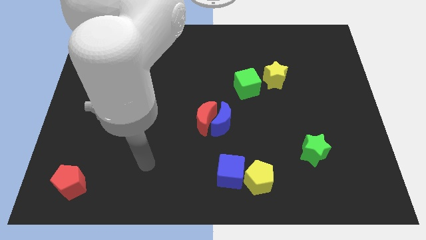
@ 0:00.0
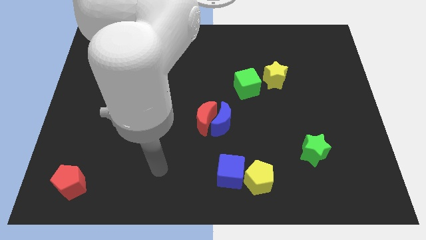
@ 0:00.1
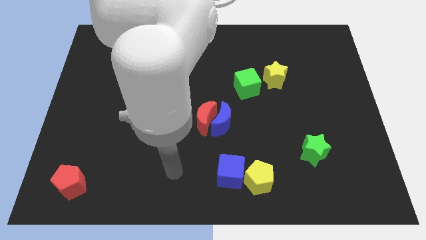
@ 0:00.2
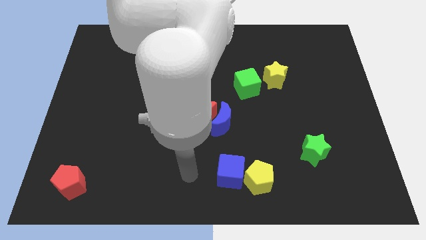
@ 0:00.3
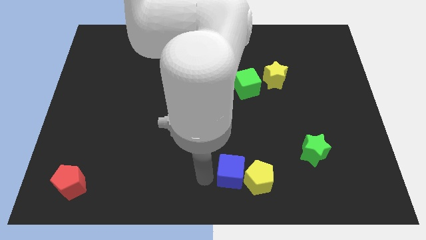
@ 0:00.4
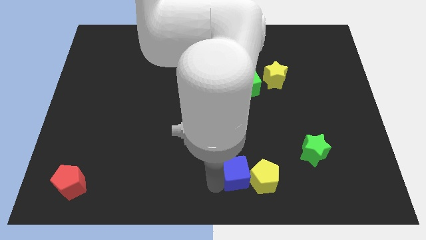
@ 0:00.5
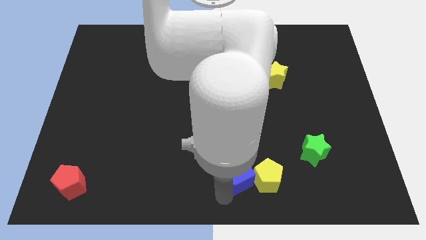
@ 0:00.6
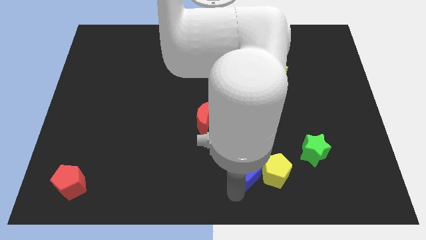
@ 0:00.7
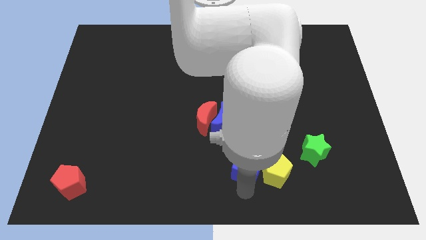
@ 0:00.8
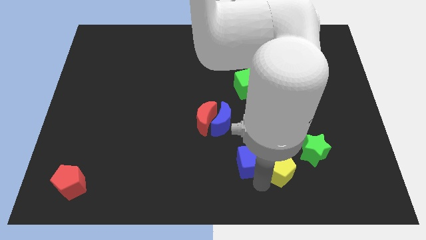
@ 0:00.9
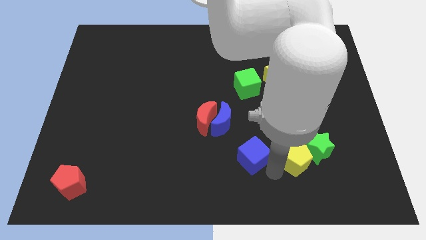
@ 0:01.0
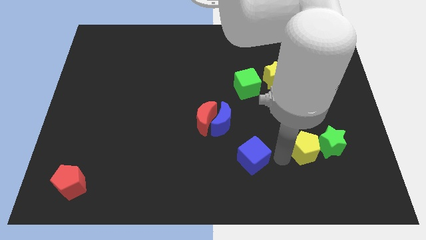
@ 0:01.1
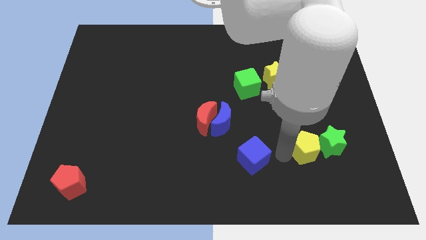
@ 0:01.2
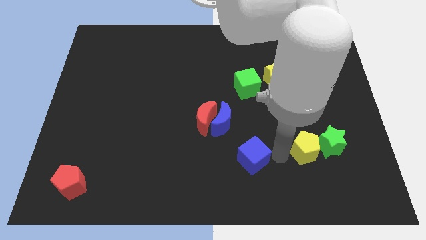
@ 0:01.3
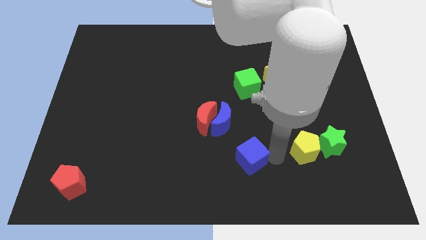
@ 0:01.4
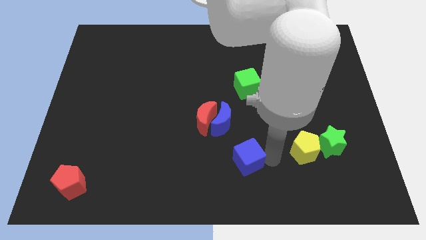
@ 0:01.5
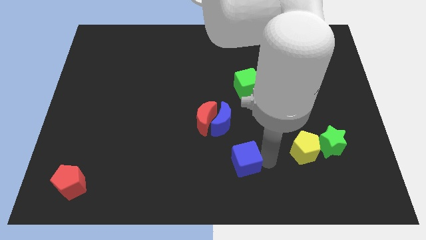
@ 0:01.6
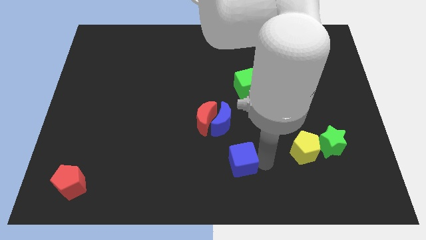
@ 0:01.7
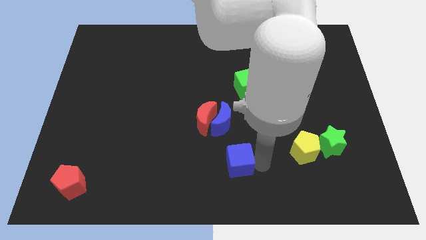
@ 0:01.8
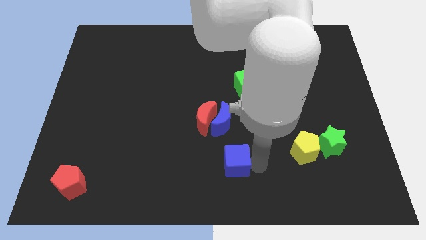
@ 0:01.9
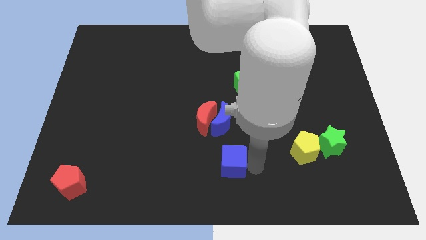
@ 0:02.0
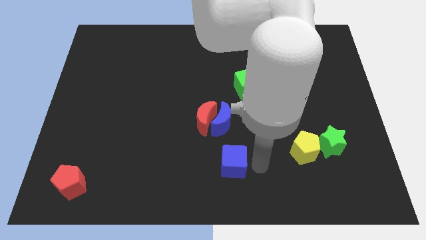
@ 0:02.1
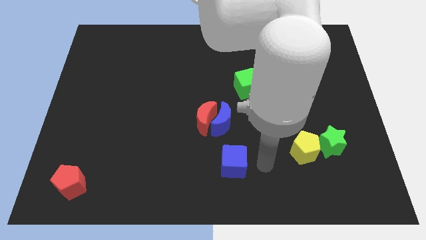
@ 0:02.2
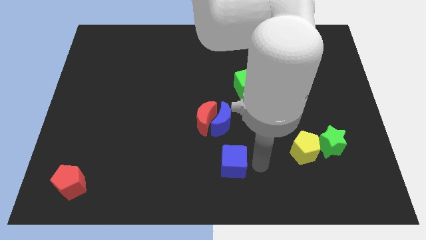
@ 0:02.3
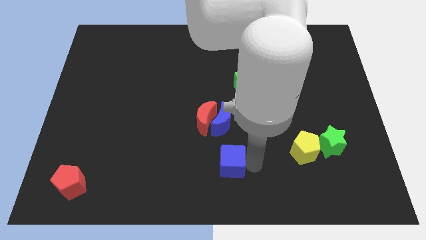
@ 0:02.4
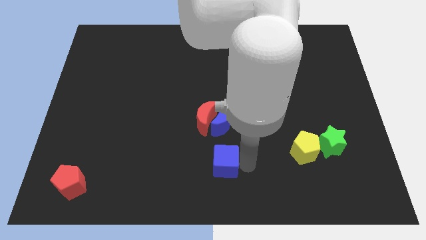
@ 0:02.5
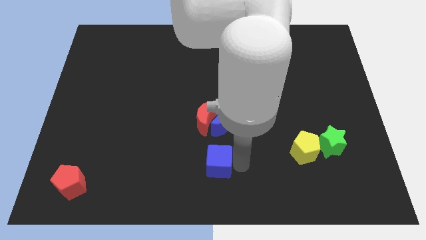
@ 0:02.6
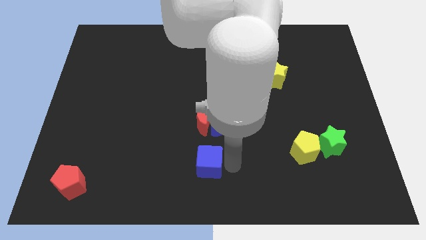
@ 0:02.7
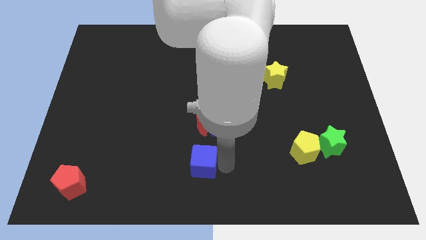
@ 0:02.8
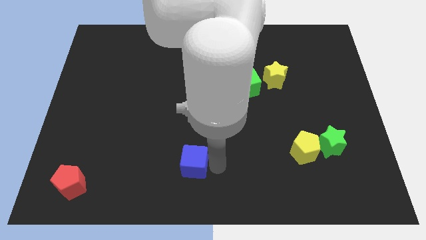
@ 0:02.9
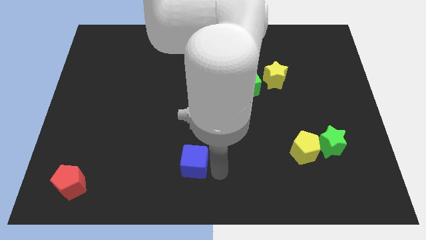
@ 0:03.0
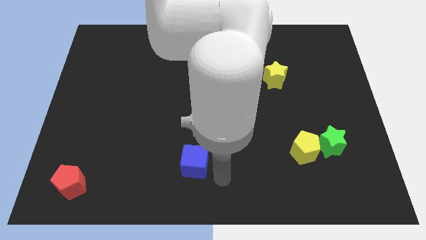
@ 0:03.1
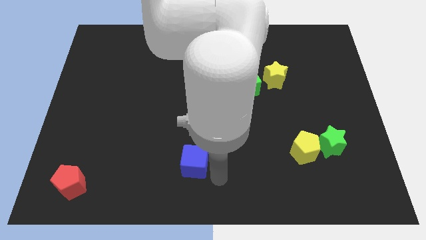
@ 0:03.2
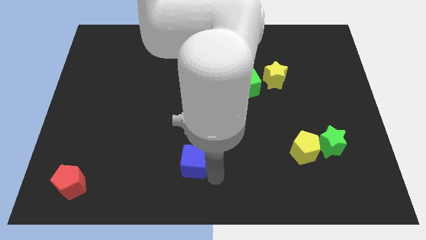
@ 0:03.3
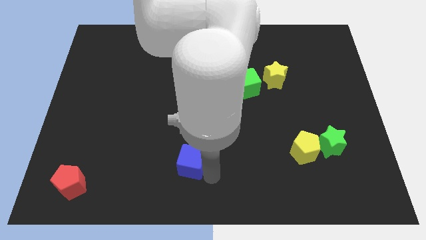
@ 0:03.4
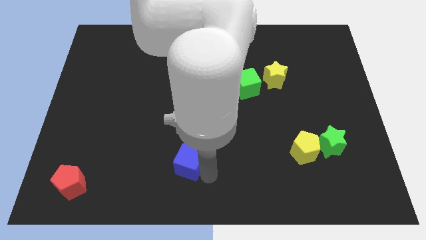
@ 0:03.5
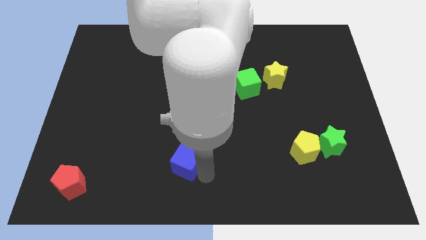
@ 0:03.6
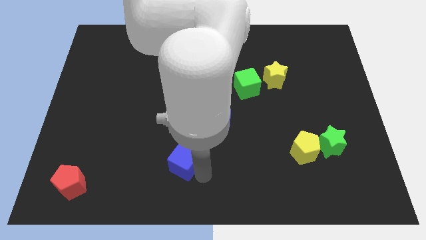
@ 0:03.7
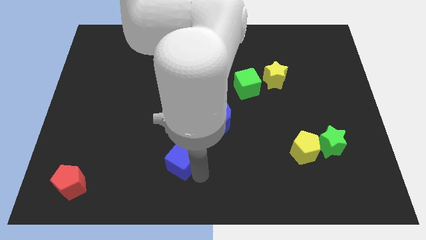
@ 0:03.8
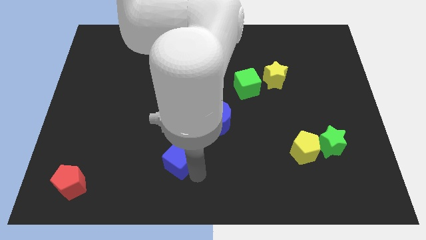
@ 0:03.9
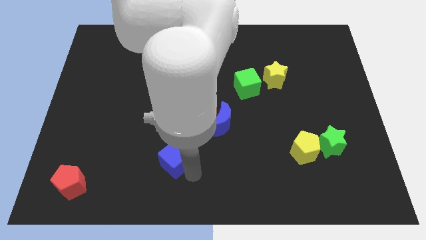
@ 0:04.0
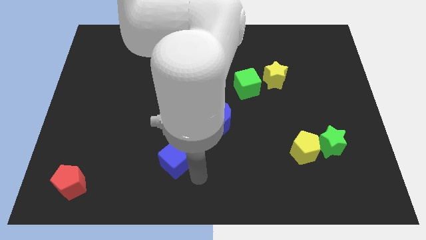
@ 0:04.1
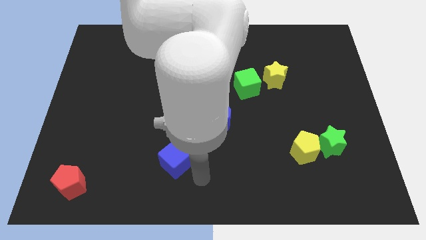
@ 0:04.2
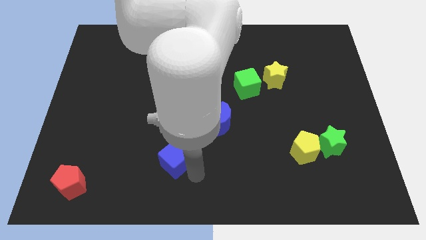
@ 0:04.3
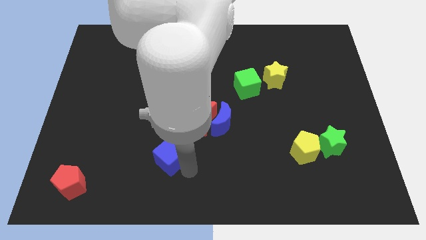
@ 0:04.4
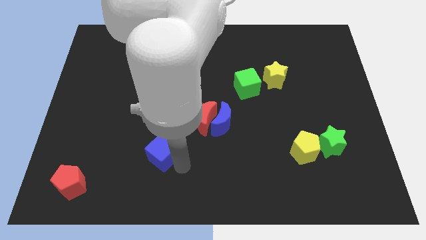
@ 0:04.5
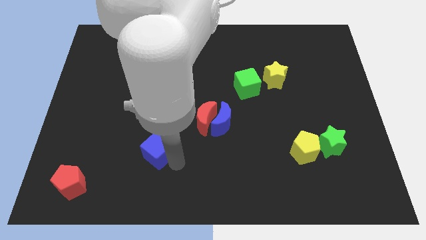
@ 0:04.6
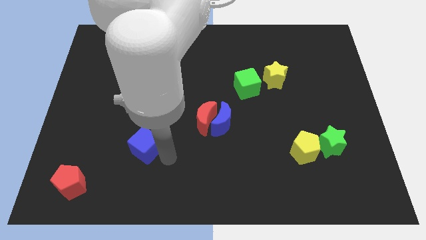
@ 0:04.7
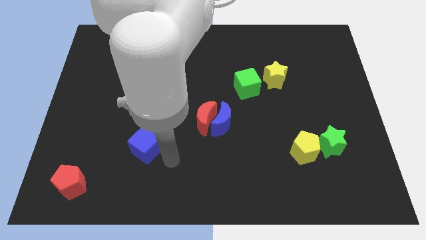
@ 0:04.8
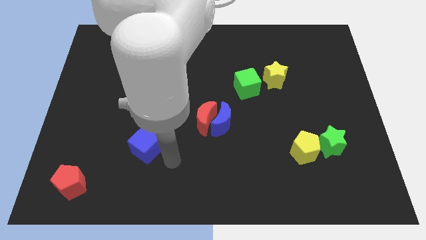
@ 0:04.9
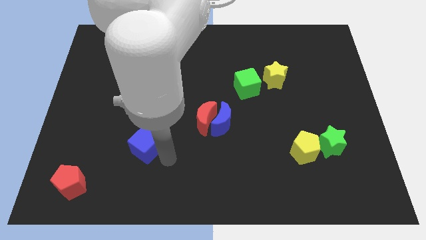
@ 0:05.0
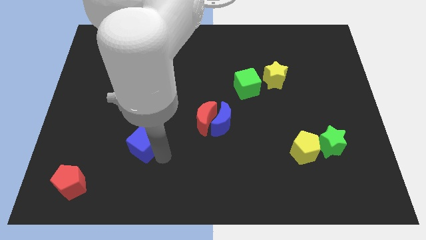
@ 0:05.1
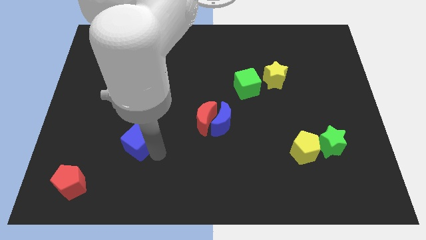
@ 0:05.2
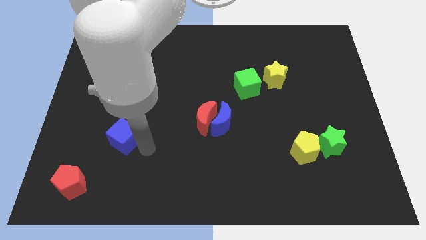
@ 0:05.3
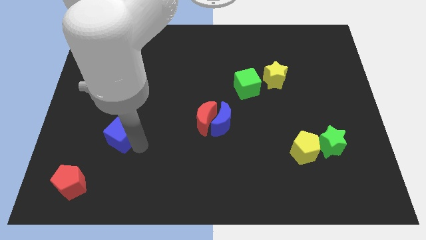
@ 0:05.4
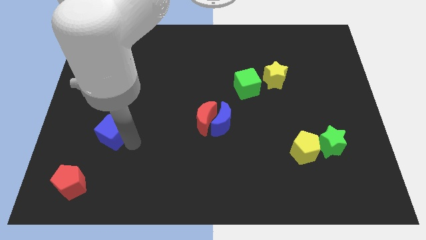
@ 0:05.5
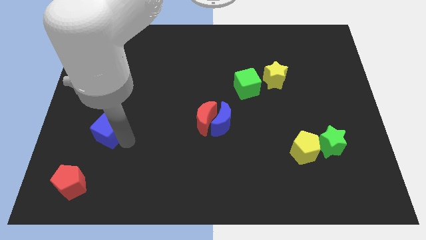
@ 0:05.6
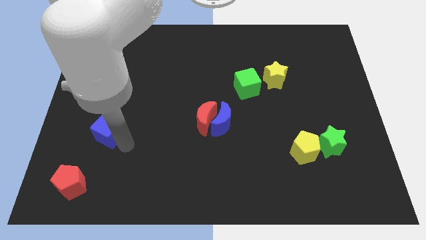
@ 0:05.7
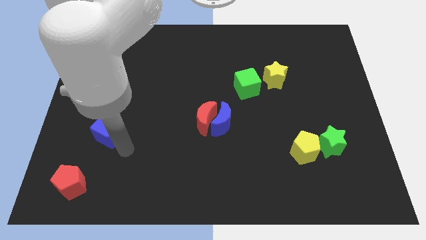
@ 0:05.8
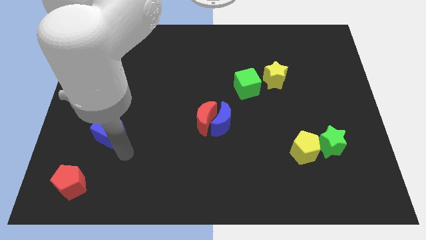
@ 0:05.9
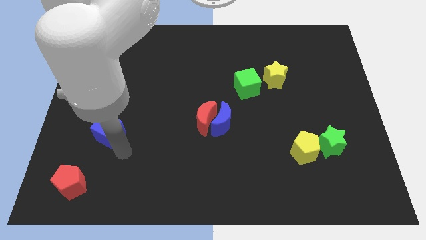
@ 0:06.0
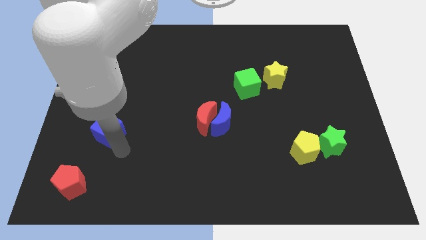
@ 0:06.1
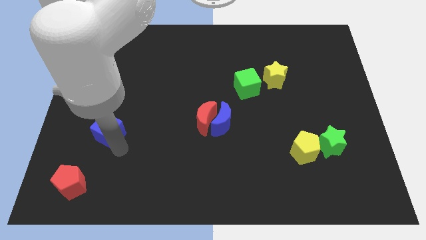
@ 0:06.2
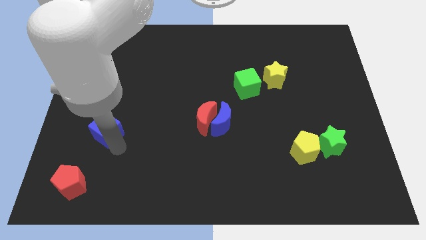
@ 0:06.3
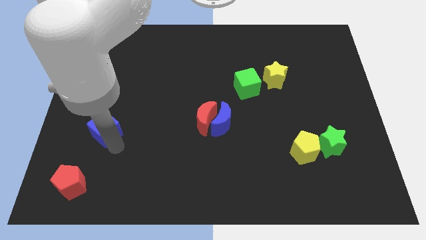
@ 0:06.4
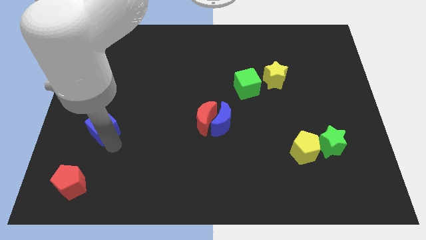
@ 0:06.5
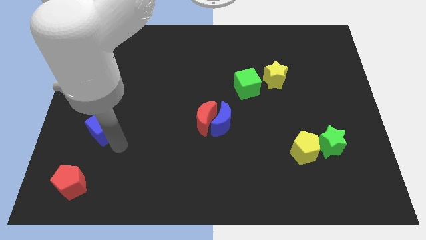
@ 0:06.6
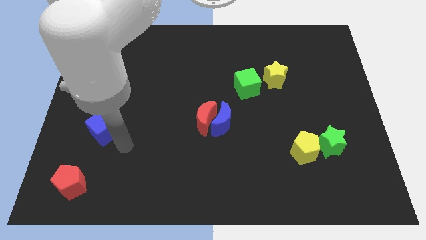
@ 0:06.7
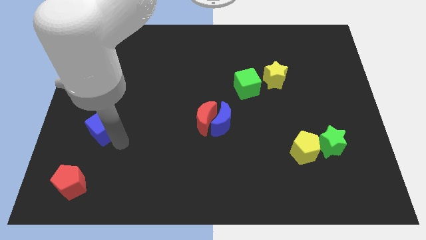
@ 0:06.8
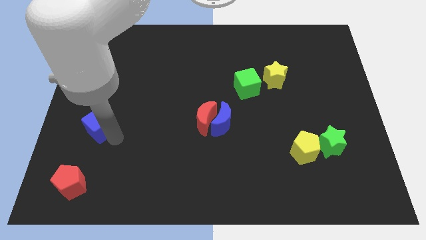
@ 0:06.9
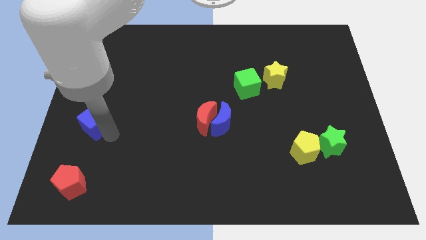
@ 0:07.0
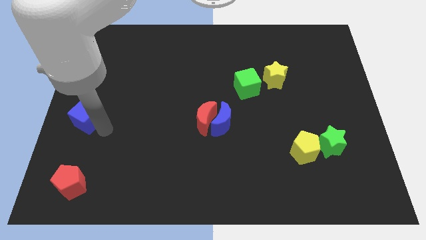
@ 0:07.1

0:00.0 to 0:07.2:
push the blue cube to the left side of the board
